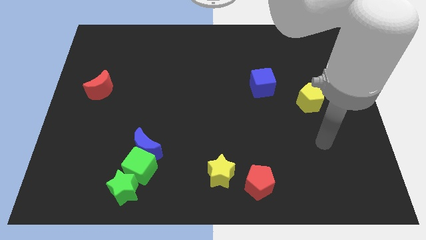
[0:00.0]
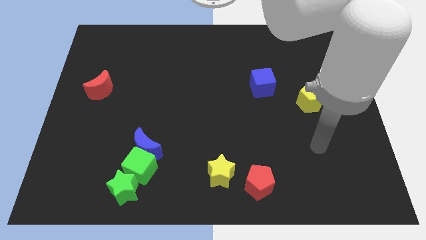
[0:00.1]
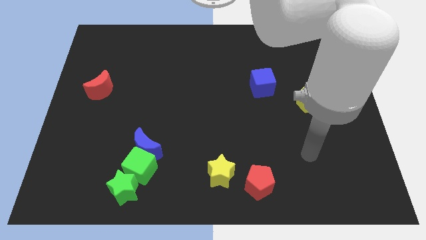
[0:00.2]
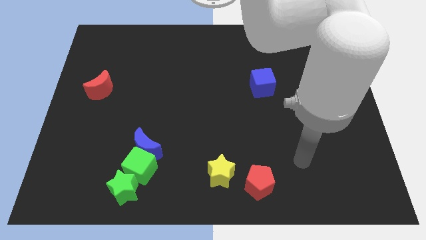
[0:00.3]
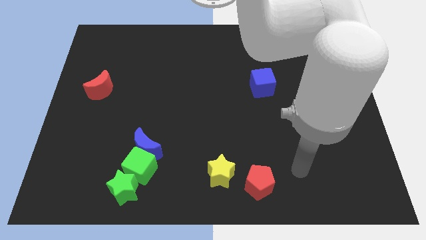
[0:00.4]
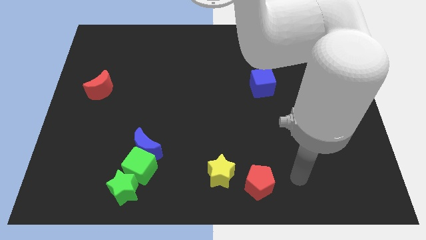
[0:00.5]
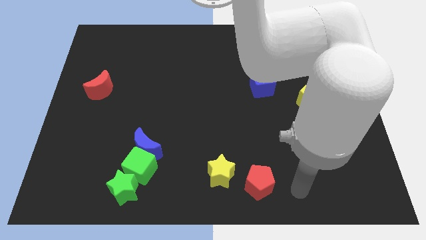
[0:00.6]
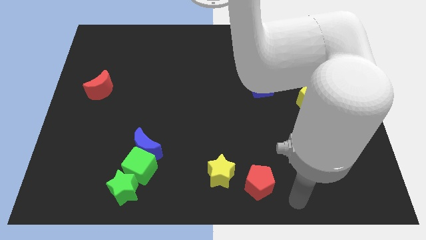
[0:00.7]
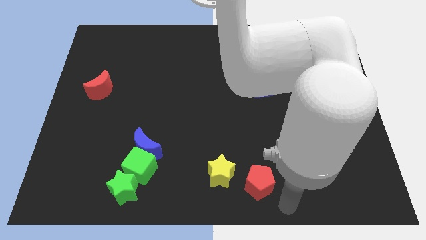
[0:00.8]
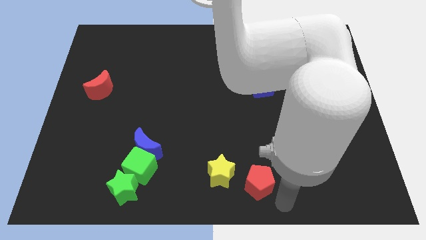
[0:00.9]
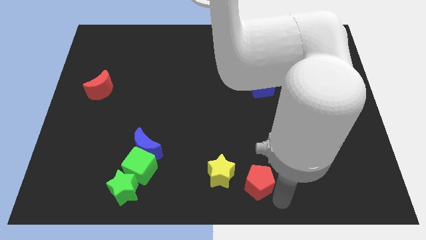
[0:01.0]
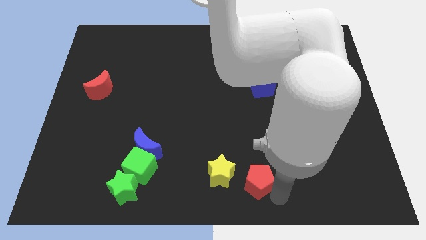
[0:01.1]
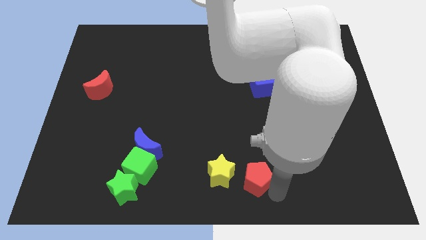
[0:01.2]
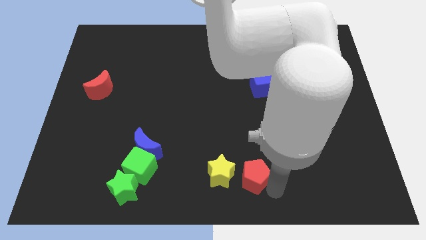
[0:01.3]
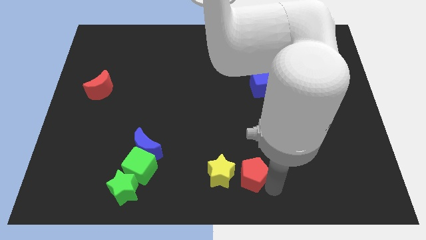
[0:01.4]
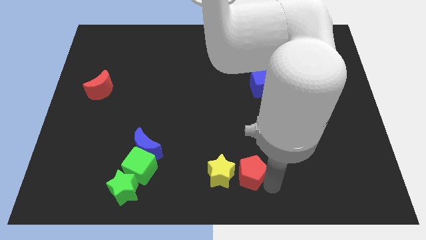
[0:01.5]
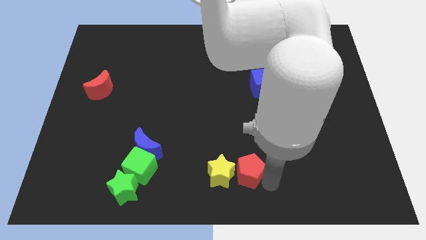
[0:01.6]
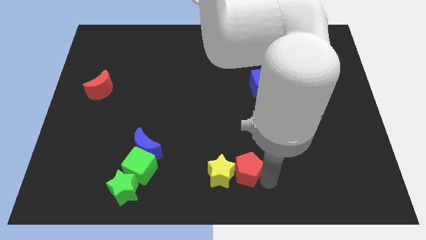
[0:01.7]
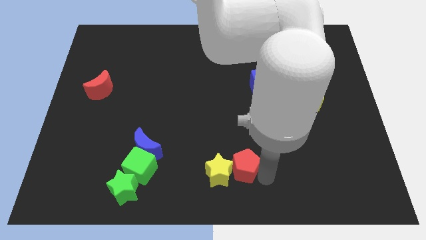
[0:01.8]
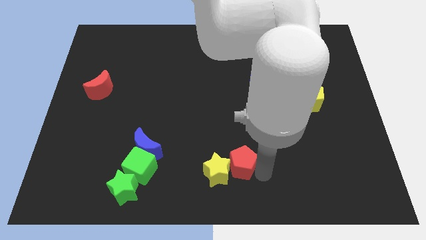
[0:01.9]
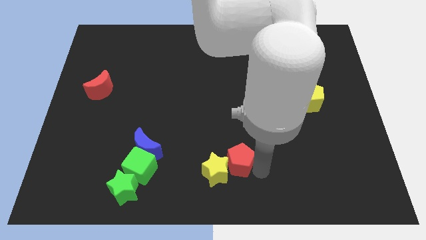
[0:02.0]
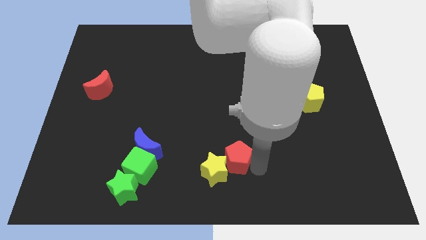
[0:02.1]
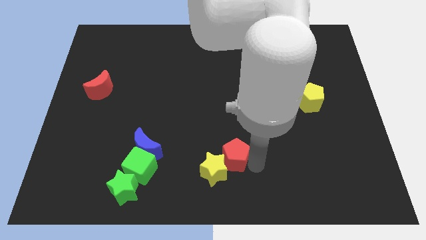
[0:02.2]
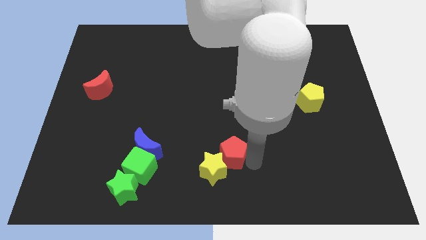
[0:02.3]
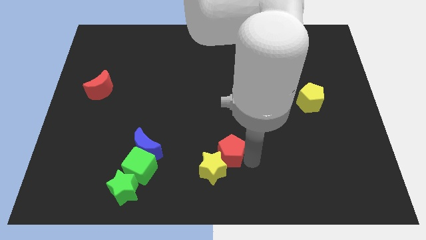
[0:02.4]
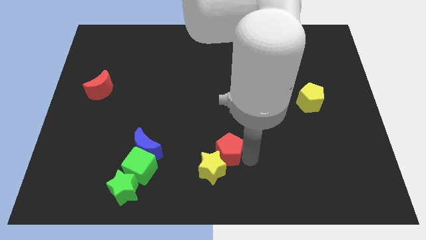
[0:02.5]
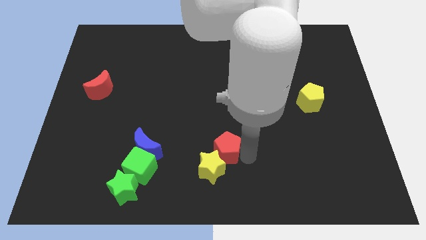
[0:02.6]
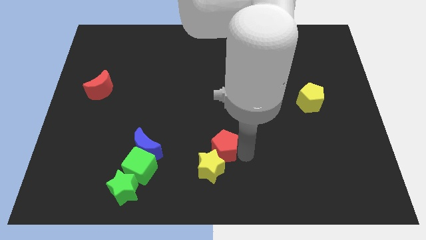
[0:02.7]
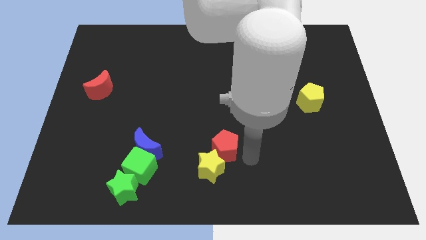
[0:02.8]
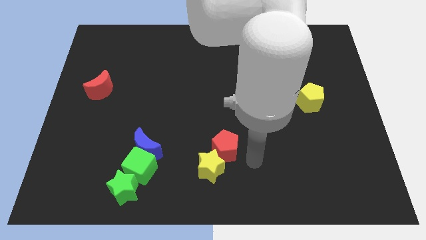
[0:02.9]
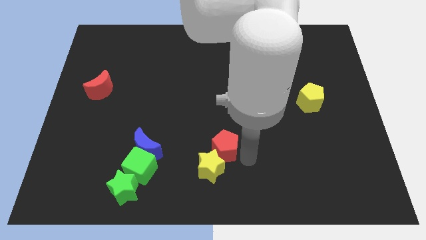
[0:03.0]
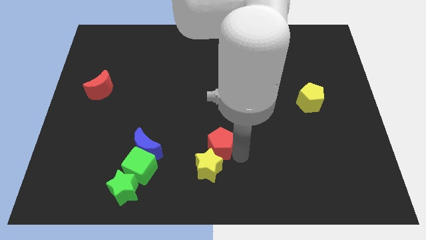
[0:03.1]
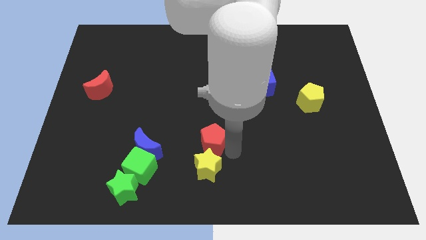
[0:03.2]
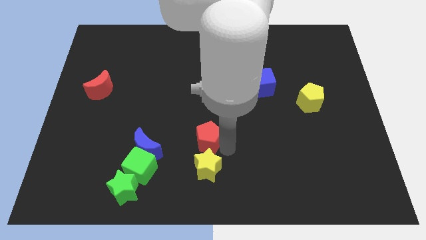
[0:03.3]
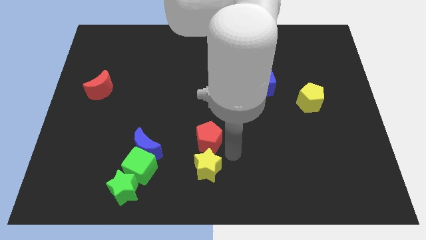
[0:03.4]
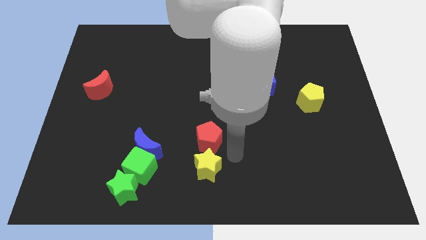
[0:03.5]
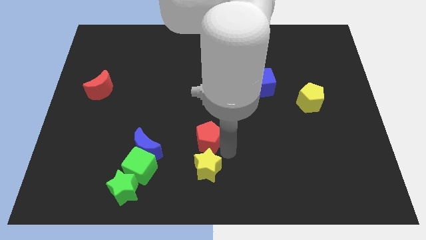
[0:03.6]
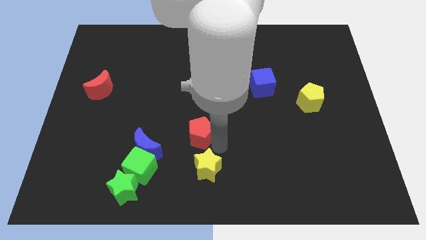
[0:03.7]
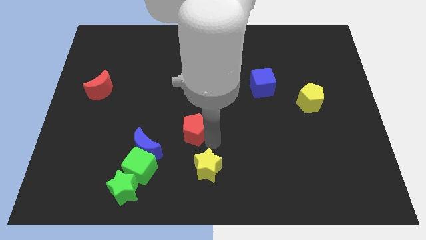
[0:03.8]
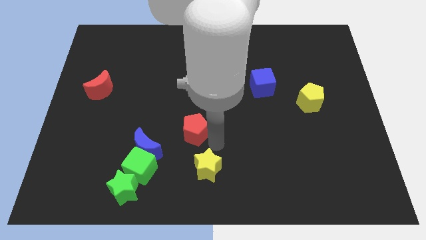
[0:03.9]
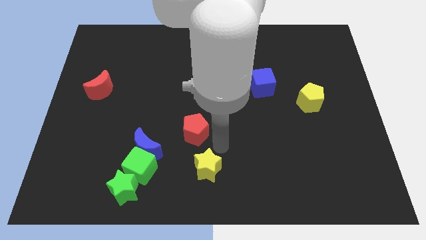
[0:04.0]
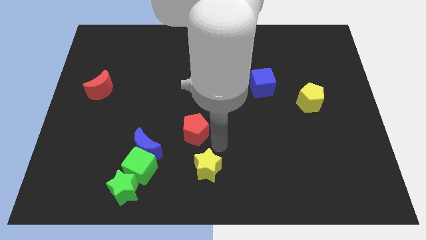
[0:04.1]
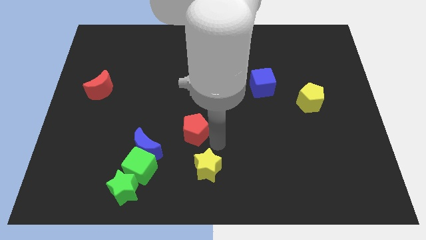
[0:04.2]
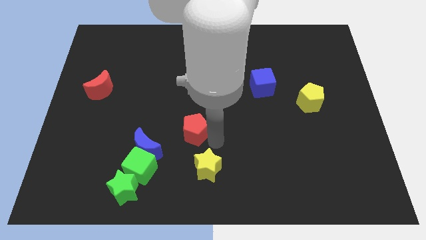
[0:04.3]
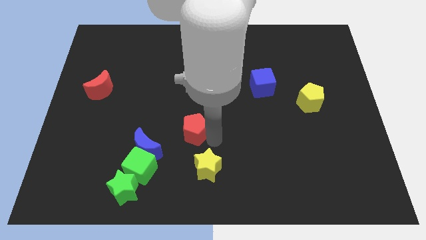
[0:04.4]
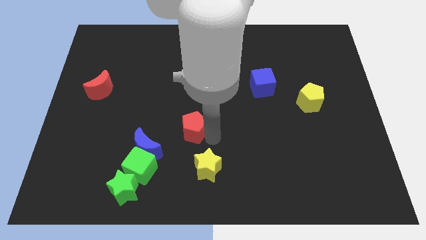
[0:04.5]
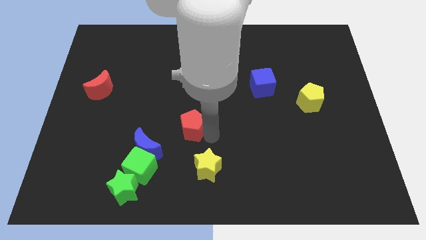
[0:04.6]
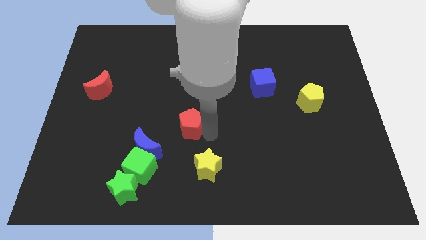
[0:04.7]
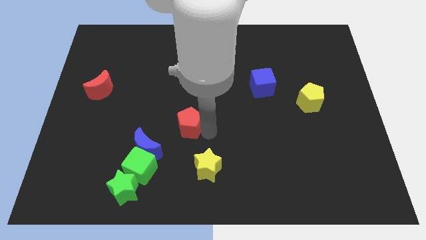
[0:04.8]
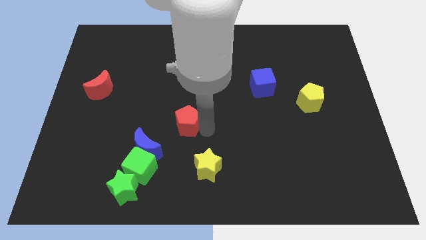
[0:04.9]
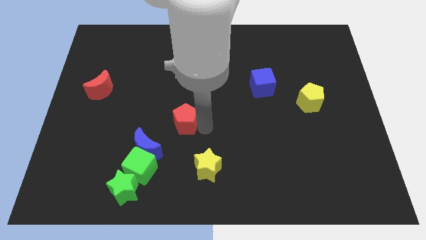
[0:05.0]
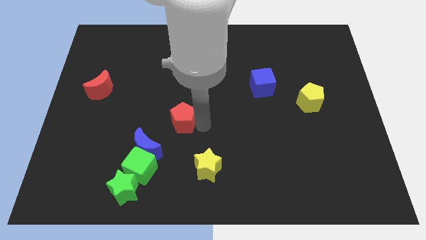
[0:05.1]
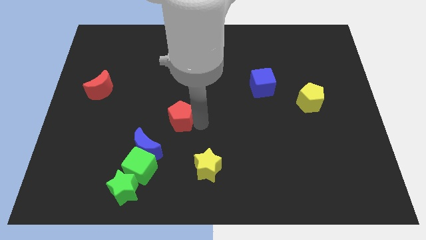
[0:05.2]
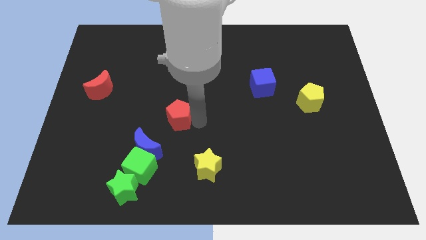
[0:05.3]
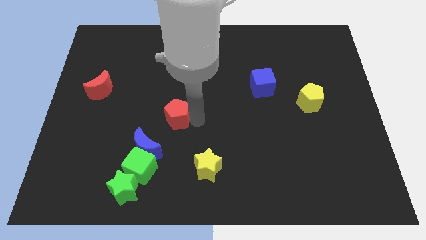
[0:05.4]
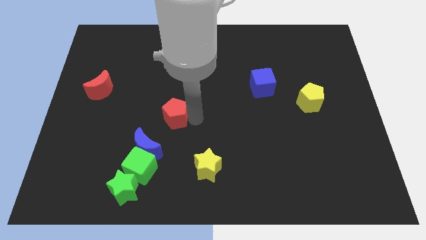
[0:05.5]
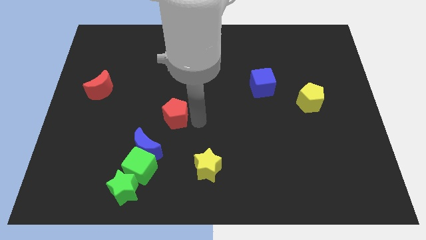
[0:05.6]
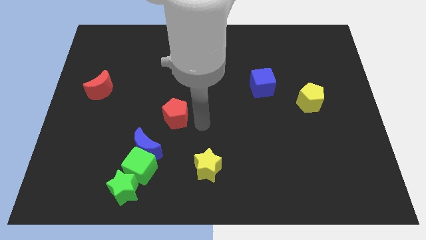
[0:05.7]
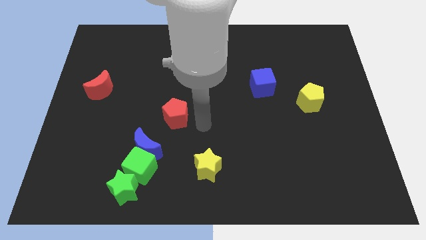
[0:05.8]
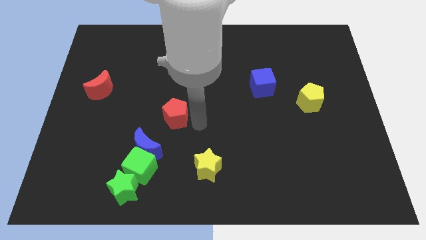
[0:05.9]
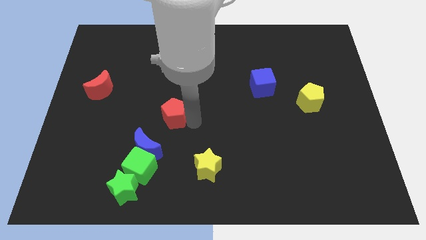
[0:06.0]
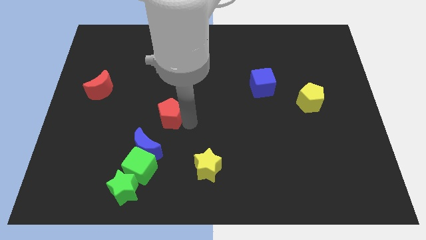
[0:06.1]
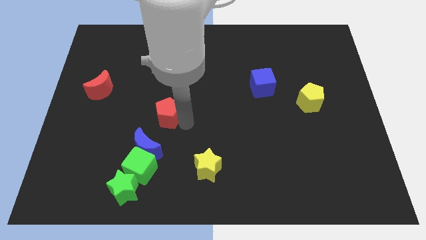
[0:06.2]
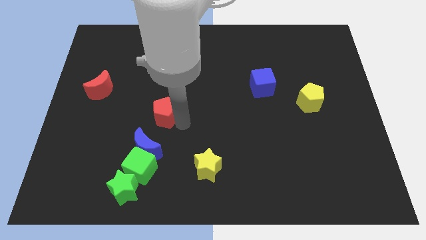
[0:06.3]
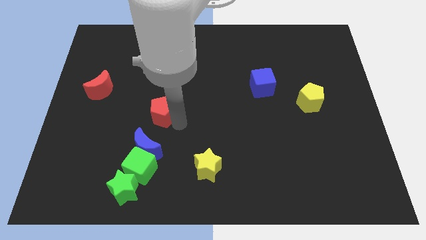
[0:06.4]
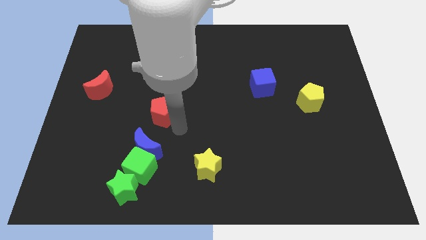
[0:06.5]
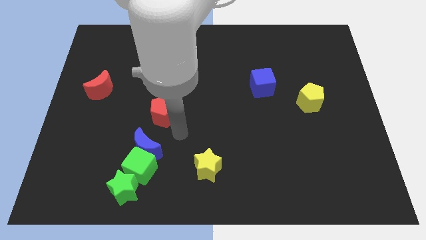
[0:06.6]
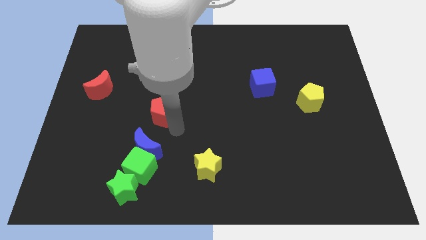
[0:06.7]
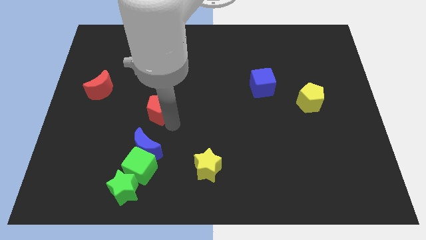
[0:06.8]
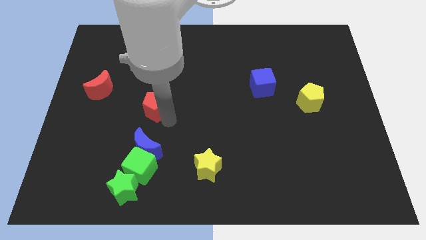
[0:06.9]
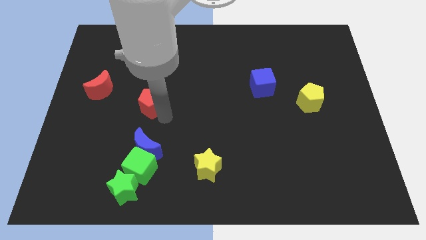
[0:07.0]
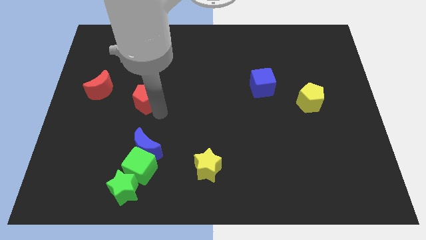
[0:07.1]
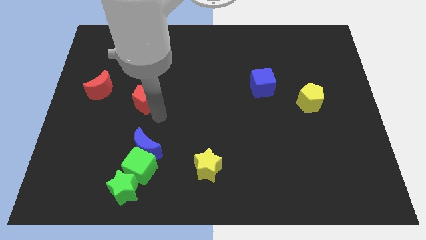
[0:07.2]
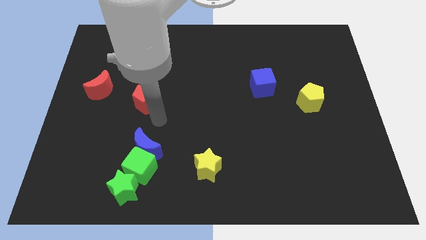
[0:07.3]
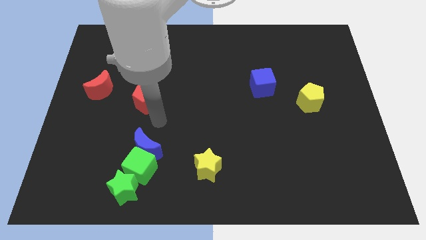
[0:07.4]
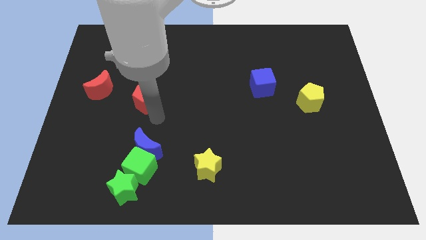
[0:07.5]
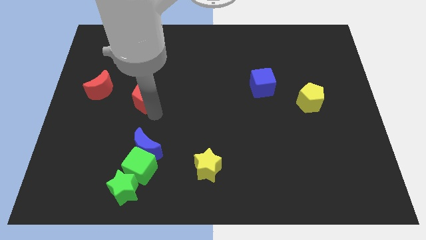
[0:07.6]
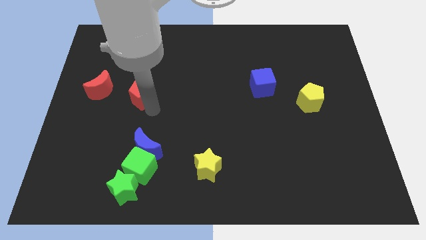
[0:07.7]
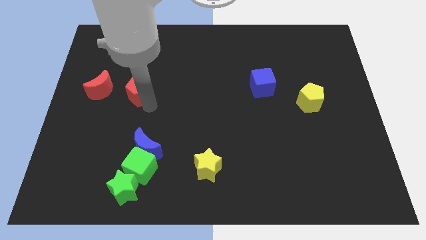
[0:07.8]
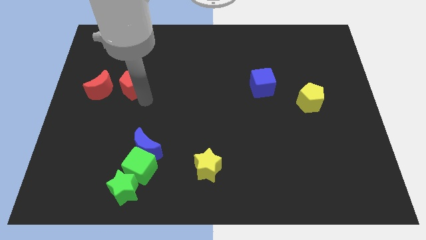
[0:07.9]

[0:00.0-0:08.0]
slide the red pentagon diagonally up and to the right of the red moon
